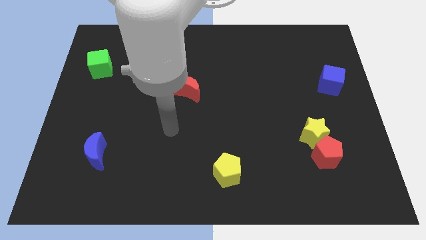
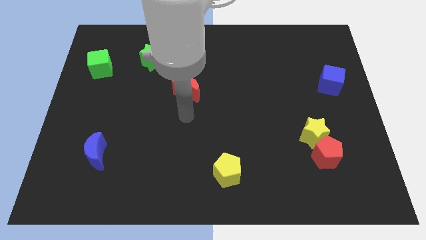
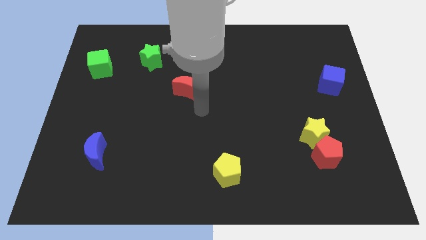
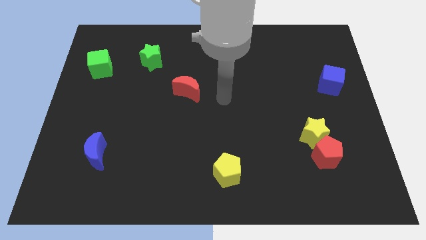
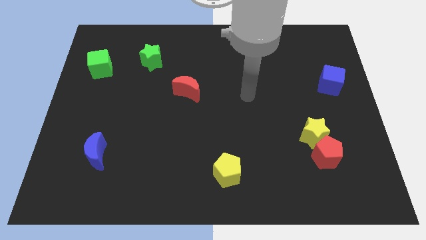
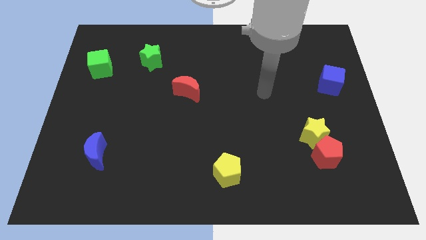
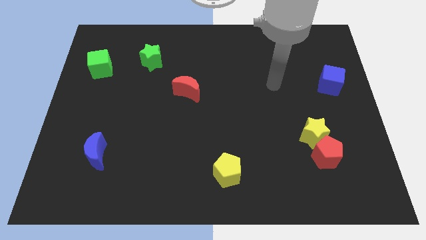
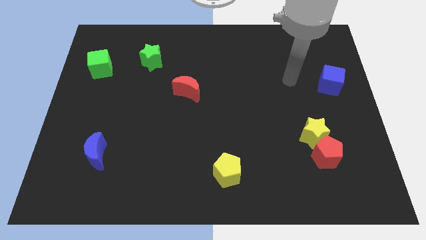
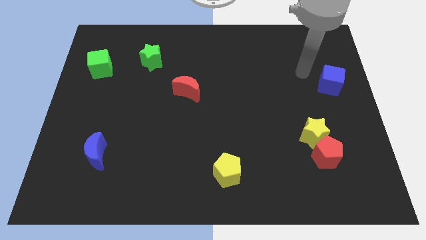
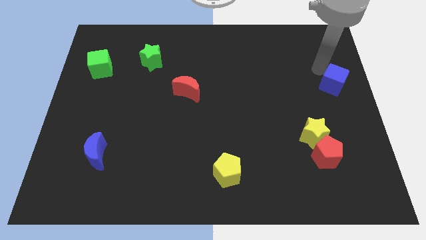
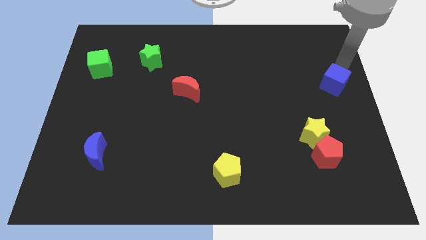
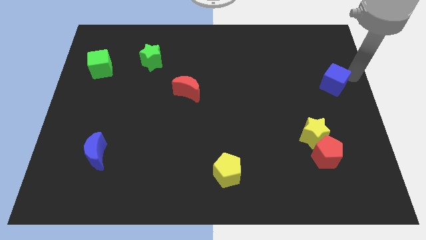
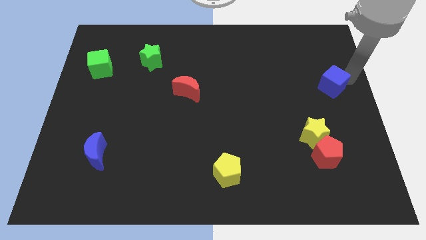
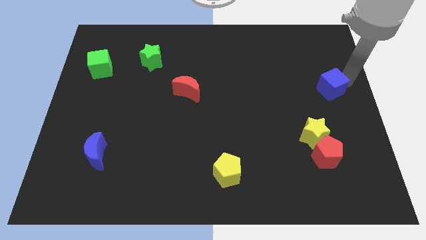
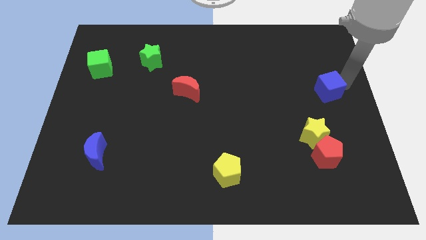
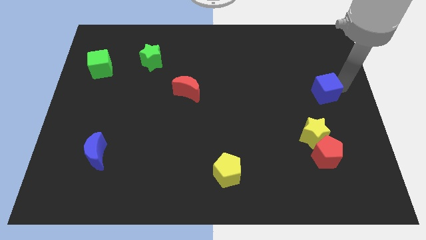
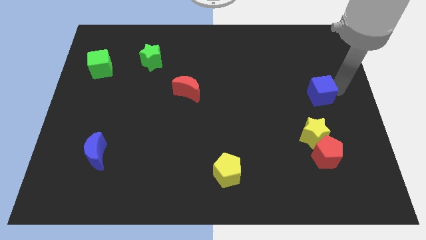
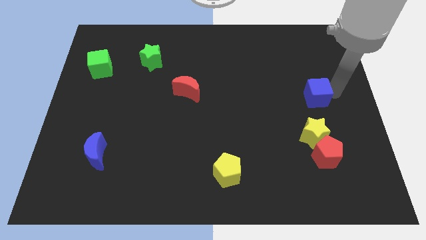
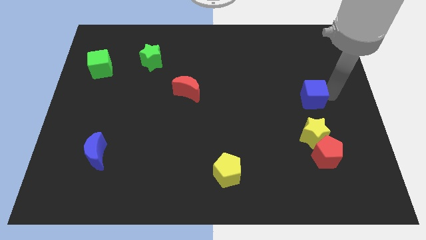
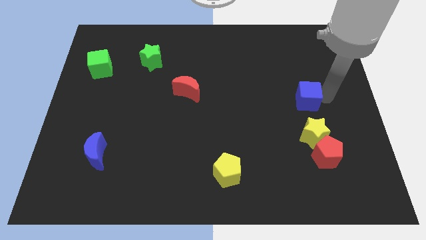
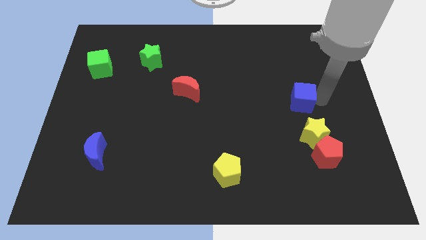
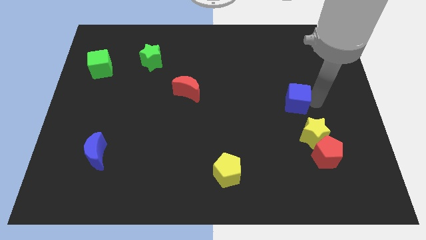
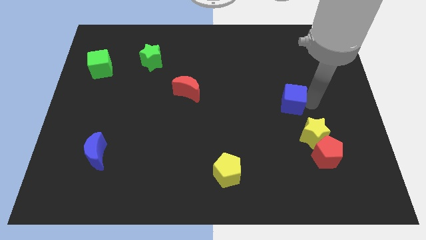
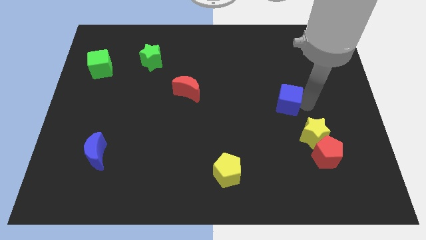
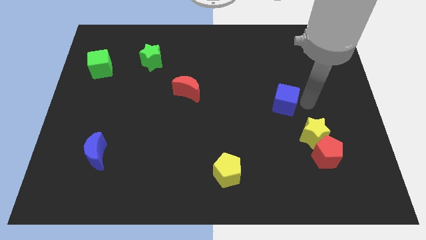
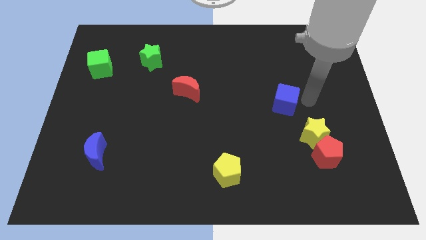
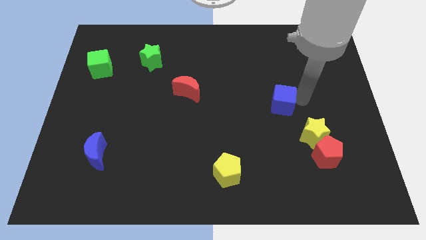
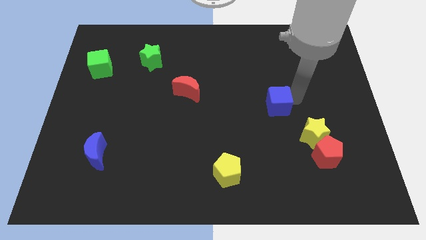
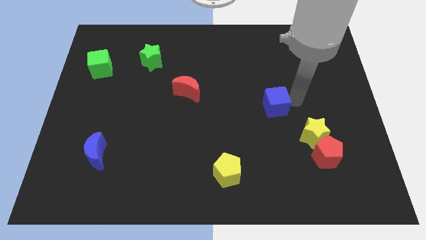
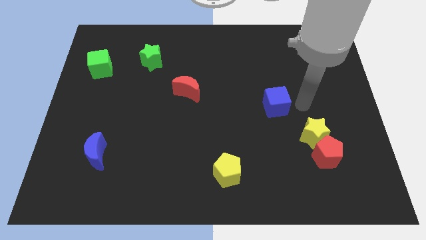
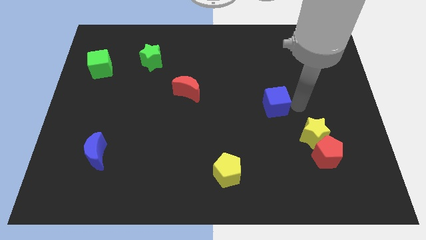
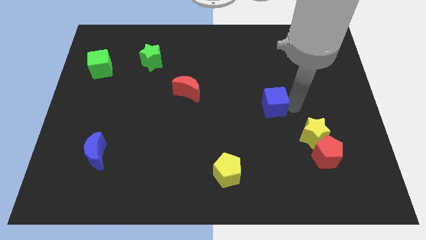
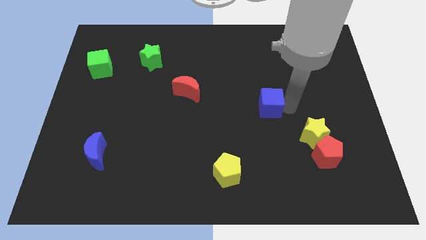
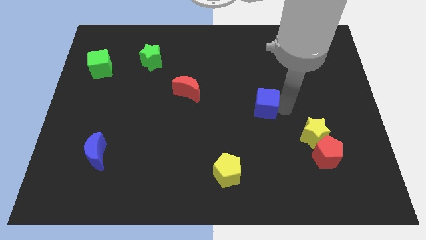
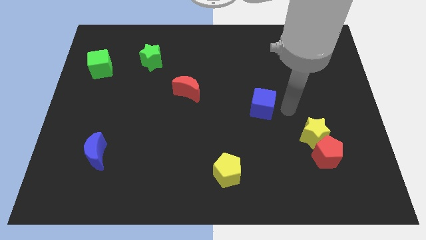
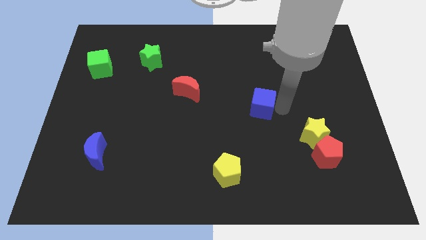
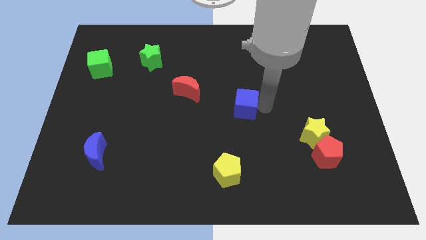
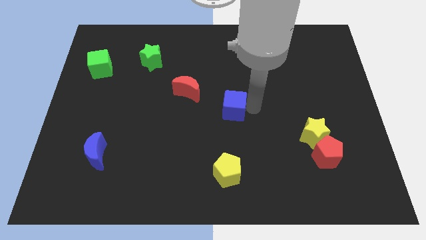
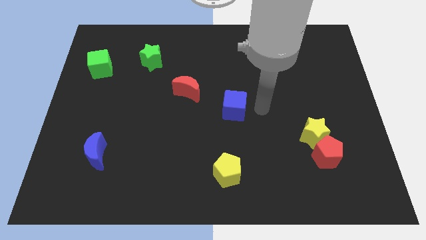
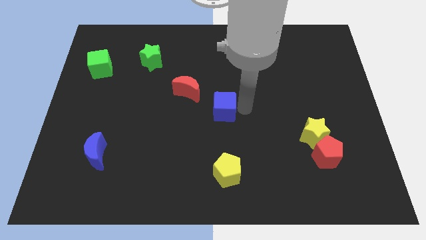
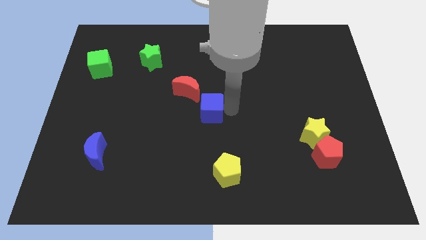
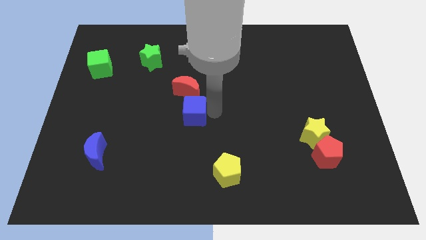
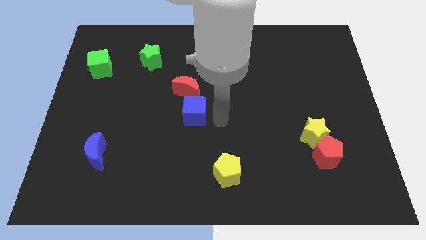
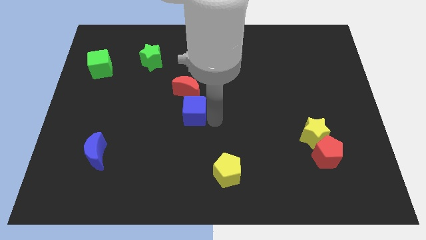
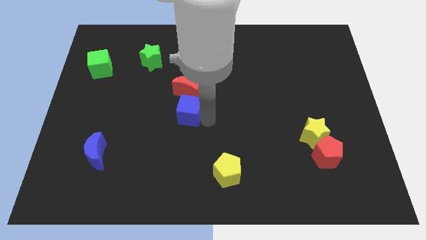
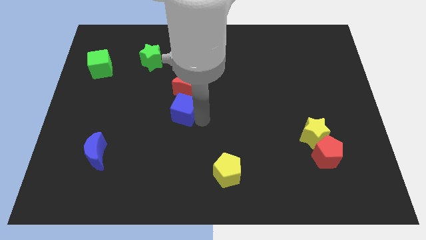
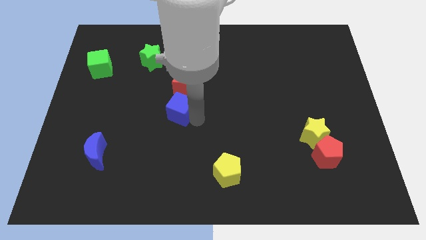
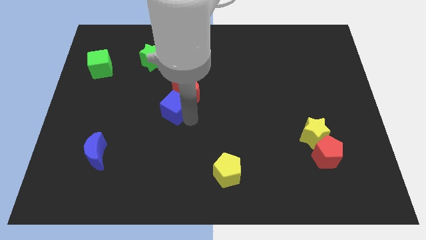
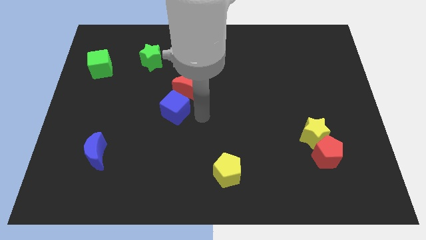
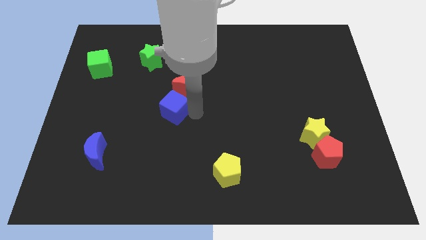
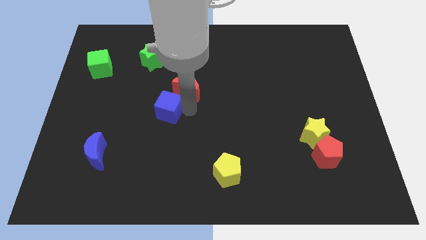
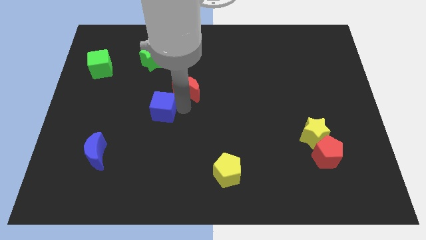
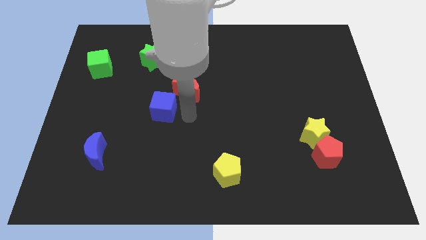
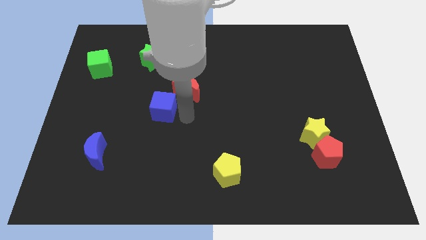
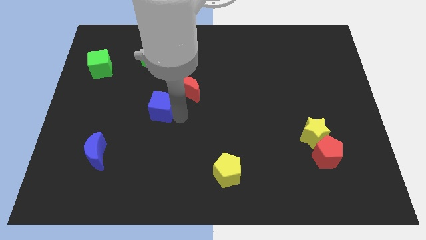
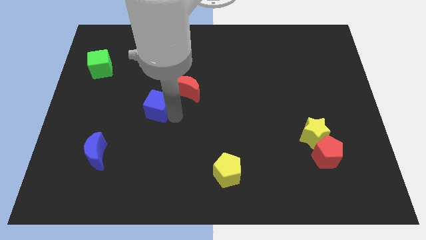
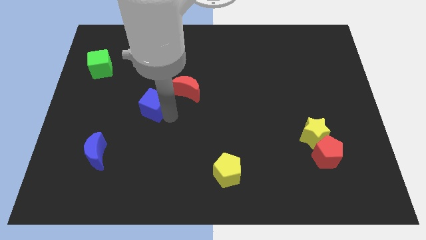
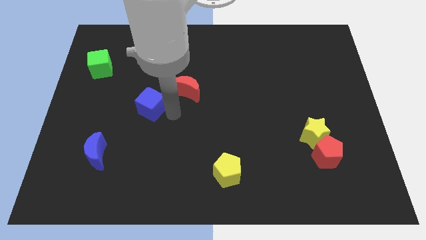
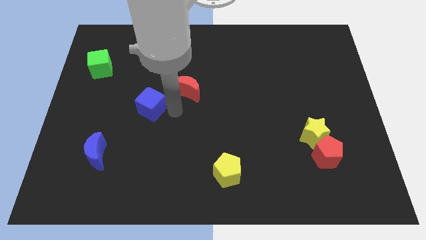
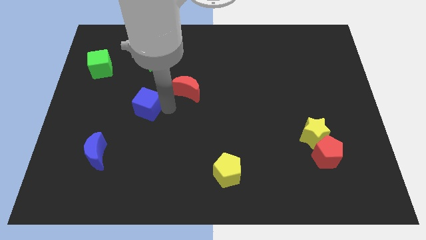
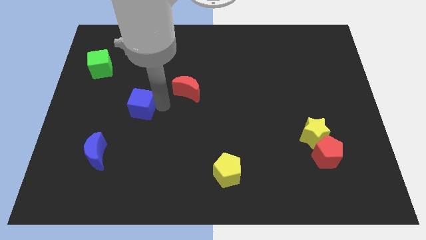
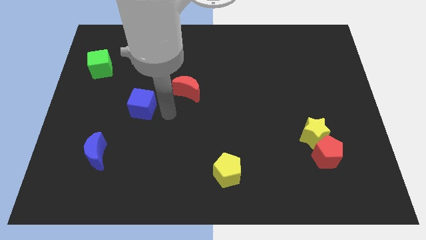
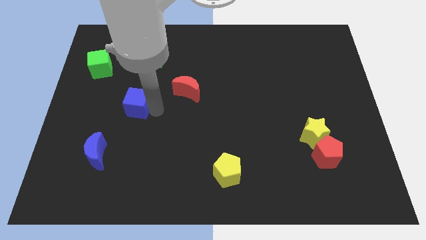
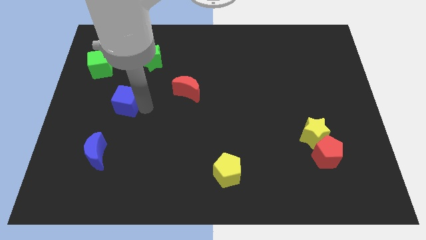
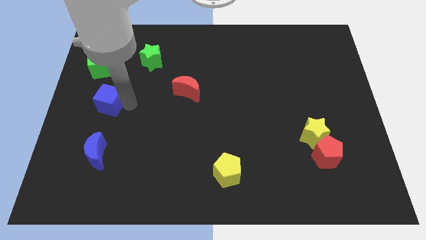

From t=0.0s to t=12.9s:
push the blue cube below the green cube
